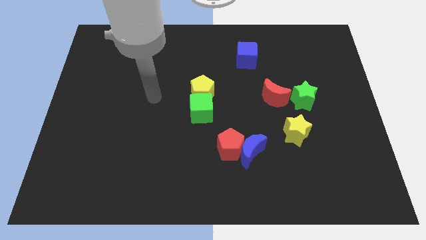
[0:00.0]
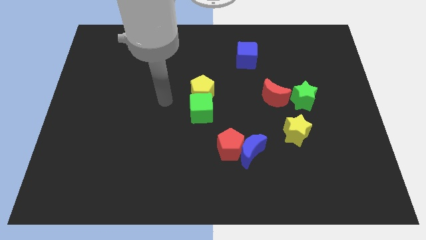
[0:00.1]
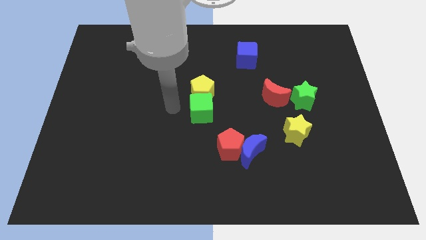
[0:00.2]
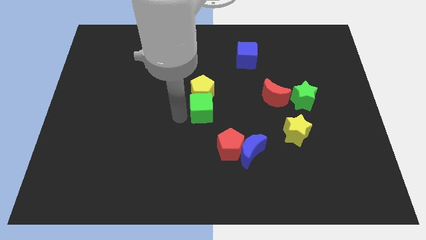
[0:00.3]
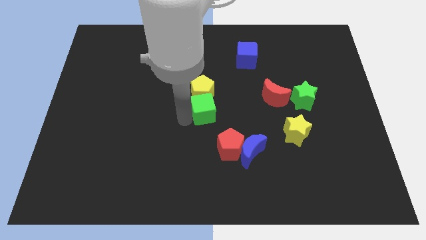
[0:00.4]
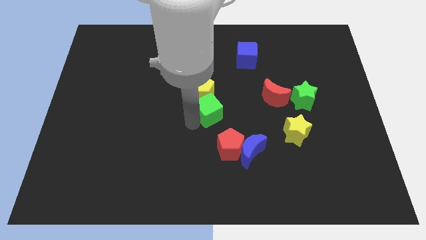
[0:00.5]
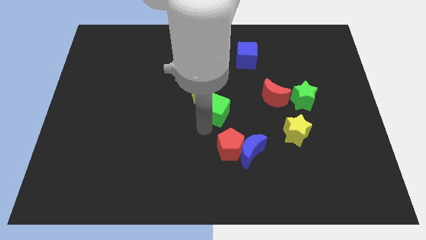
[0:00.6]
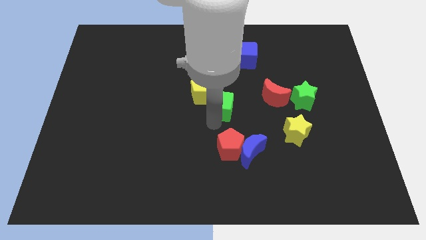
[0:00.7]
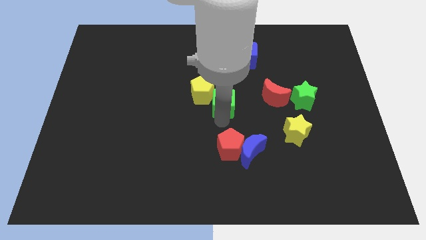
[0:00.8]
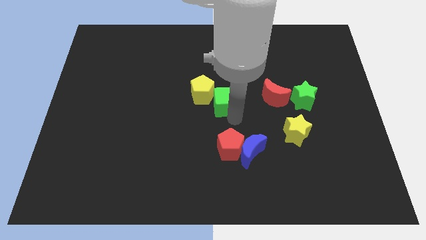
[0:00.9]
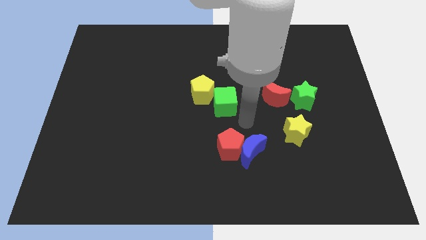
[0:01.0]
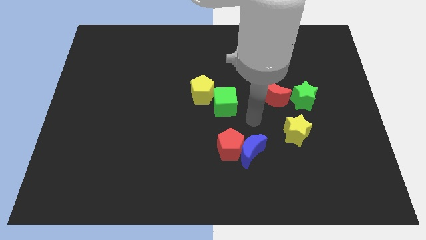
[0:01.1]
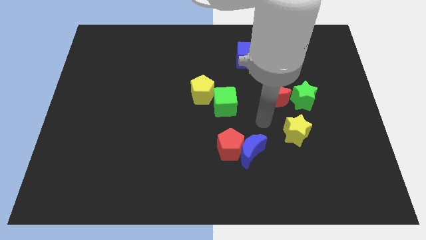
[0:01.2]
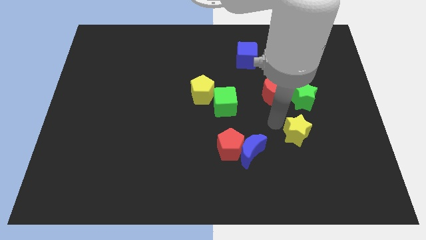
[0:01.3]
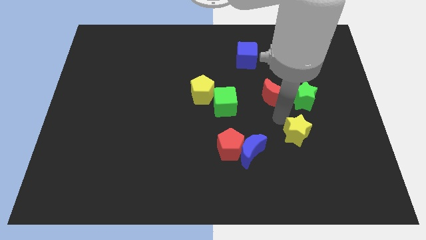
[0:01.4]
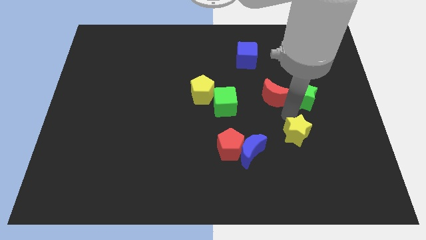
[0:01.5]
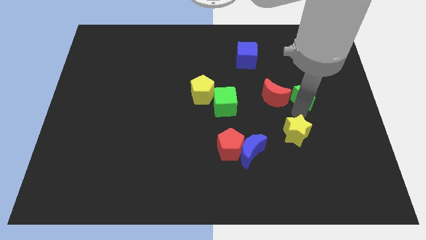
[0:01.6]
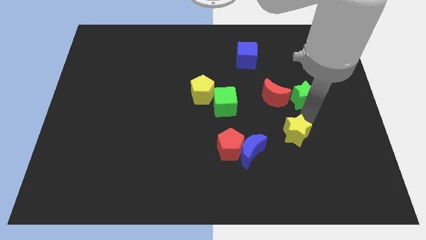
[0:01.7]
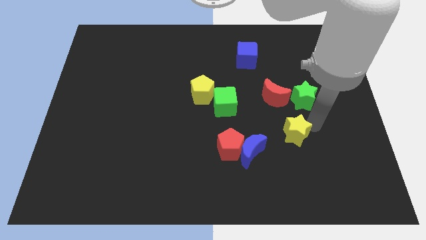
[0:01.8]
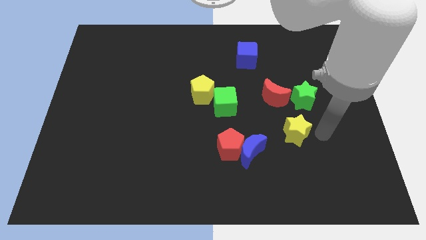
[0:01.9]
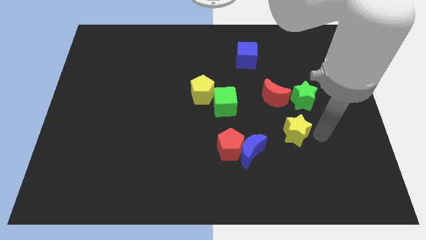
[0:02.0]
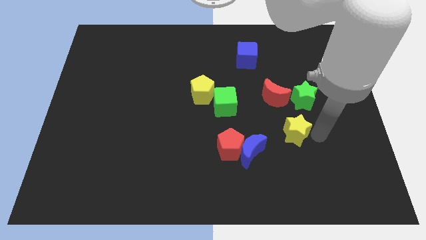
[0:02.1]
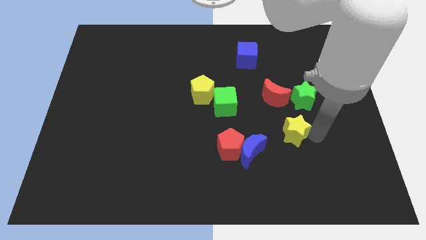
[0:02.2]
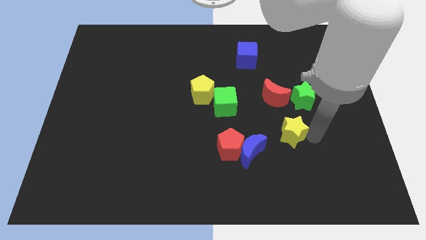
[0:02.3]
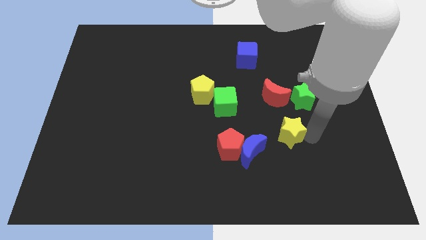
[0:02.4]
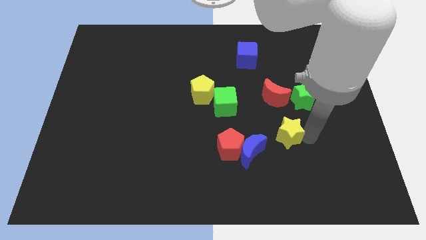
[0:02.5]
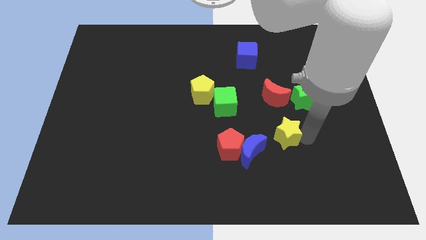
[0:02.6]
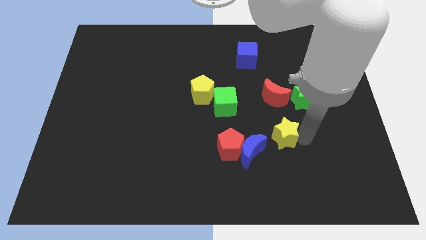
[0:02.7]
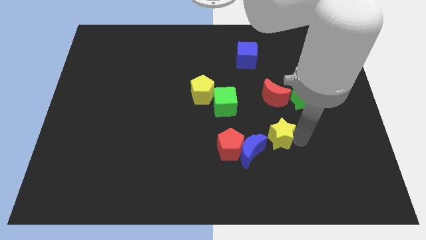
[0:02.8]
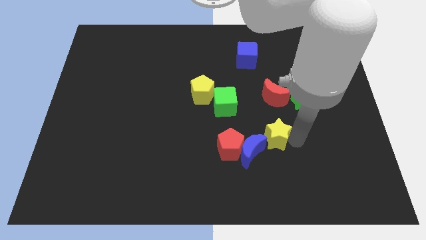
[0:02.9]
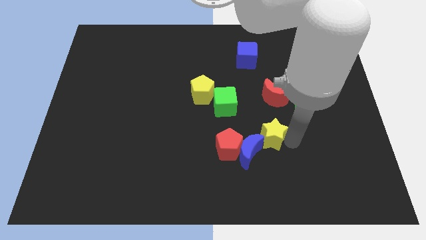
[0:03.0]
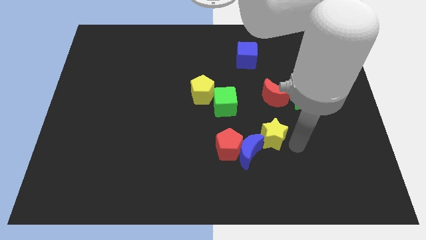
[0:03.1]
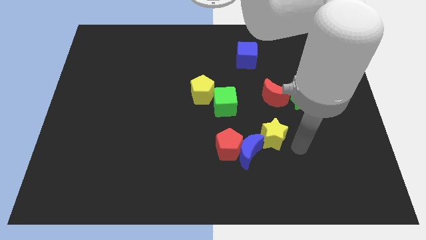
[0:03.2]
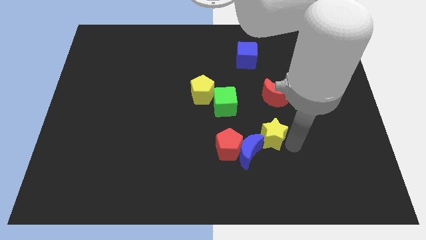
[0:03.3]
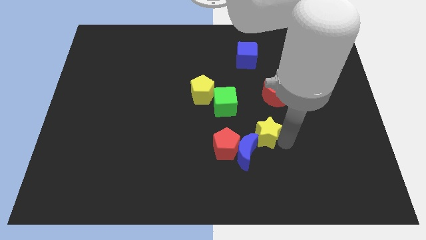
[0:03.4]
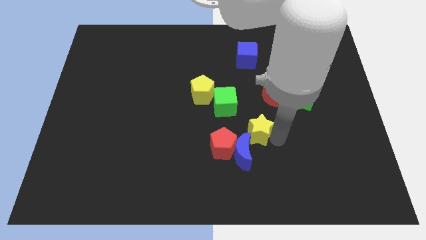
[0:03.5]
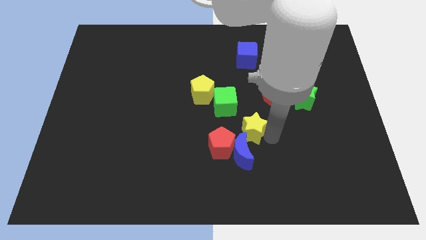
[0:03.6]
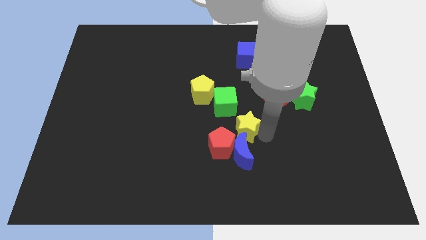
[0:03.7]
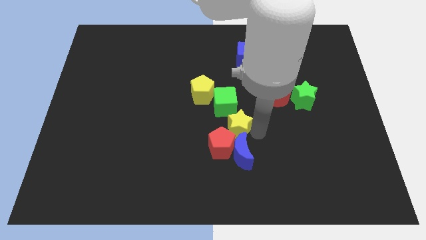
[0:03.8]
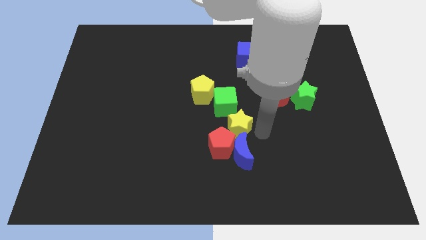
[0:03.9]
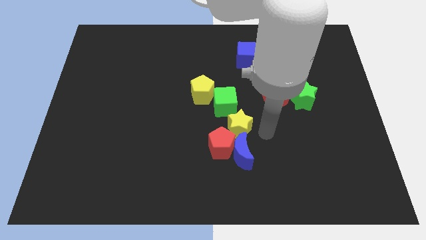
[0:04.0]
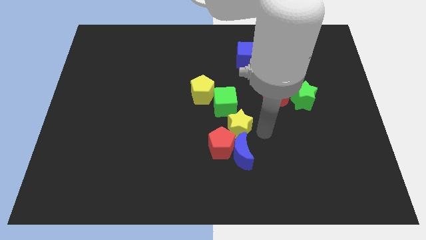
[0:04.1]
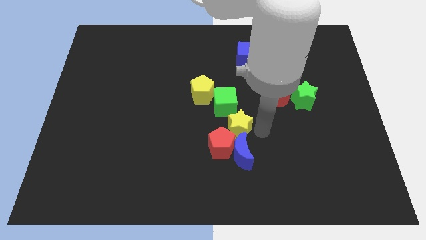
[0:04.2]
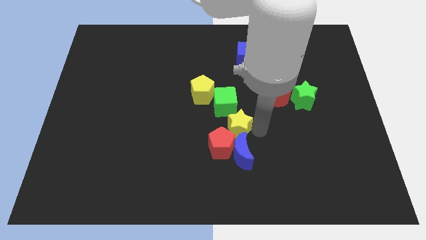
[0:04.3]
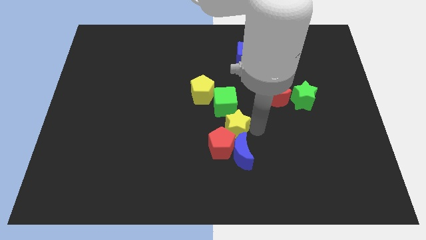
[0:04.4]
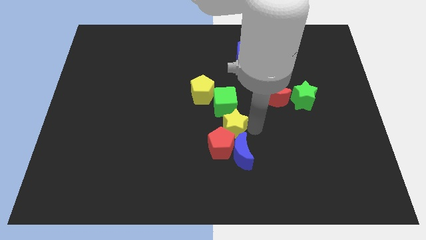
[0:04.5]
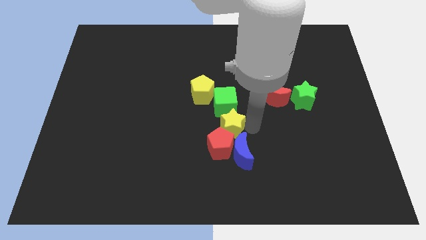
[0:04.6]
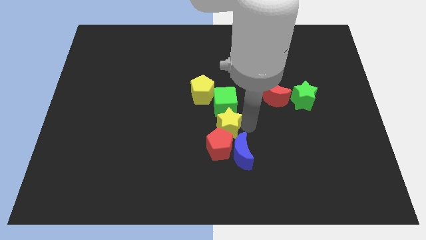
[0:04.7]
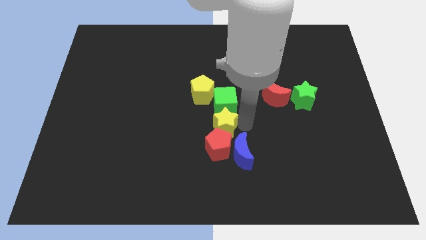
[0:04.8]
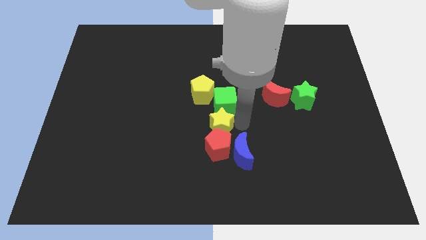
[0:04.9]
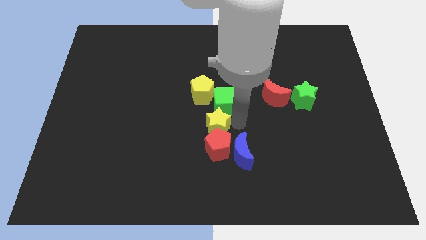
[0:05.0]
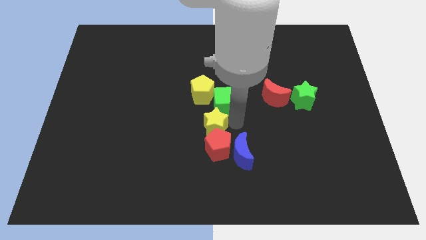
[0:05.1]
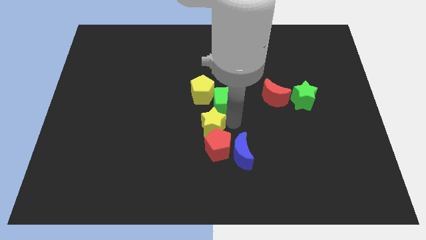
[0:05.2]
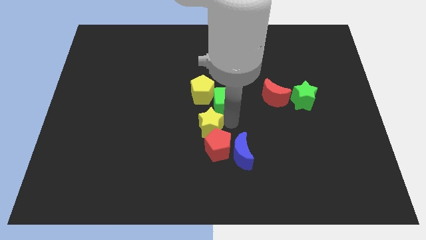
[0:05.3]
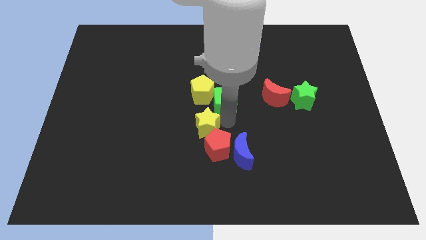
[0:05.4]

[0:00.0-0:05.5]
slide the yellow star to the left

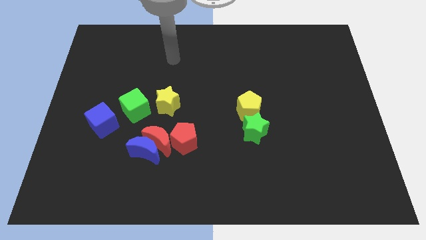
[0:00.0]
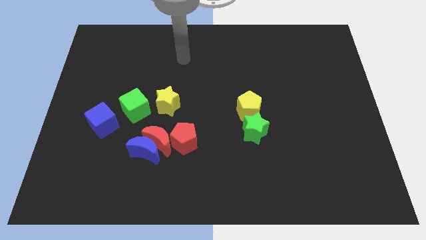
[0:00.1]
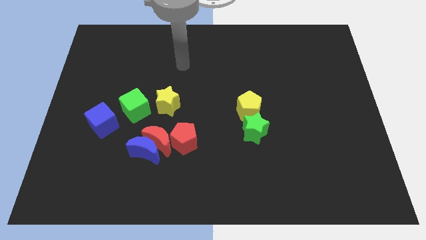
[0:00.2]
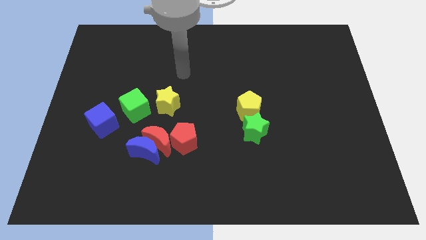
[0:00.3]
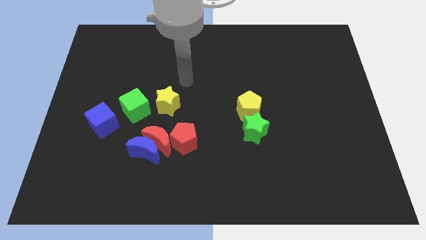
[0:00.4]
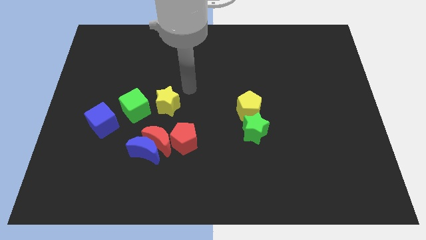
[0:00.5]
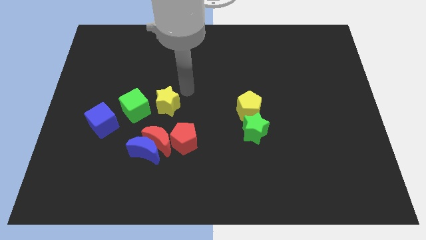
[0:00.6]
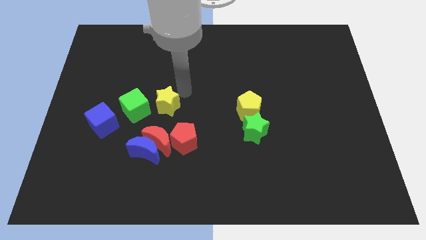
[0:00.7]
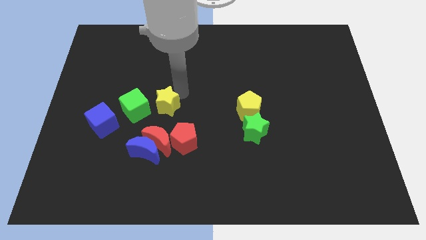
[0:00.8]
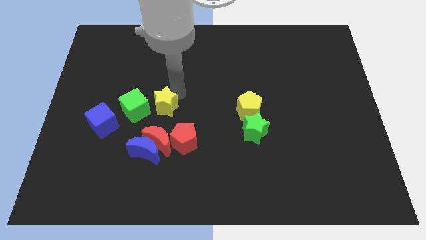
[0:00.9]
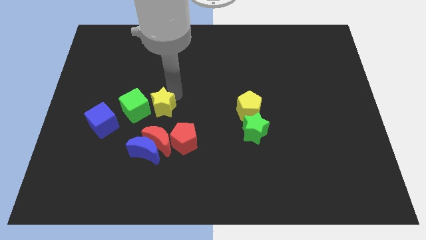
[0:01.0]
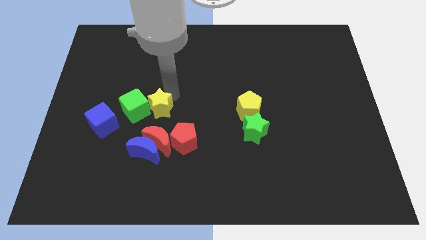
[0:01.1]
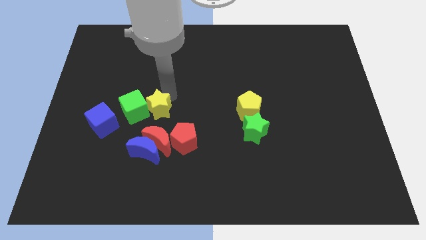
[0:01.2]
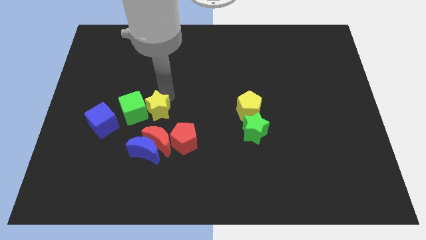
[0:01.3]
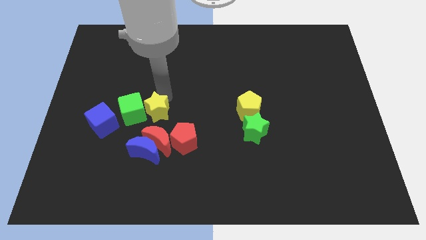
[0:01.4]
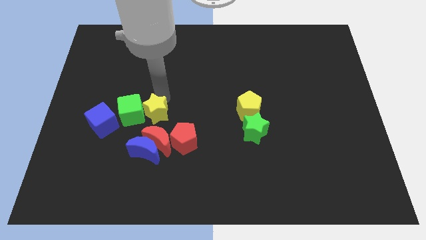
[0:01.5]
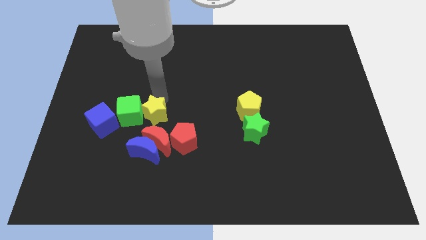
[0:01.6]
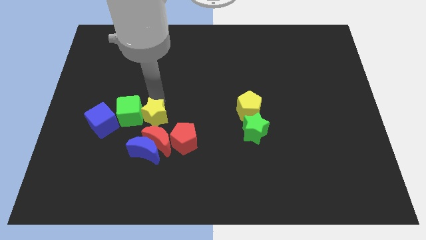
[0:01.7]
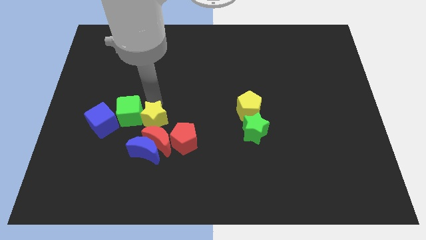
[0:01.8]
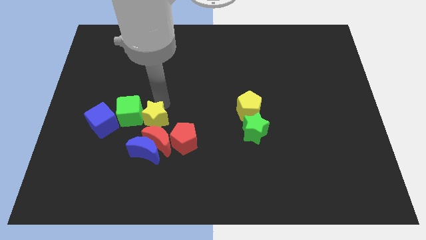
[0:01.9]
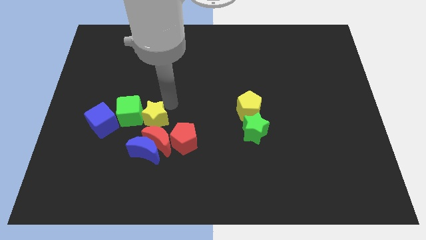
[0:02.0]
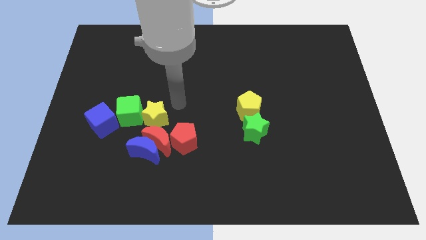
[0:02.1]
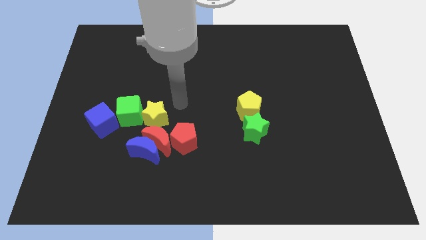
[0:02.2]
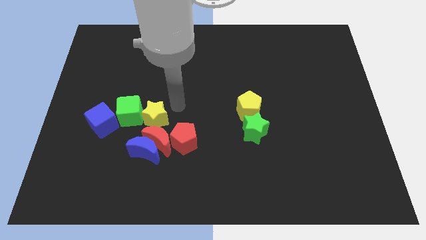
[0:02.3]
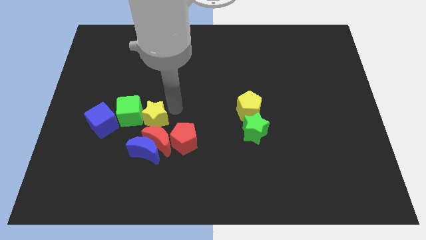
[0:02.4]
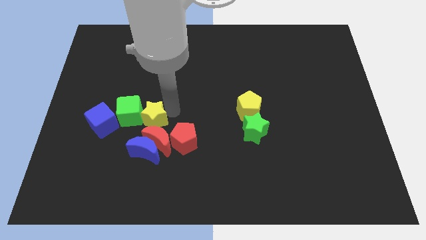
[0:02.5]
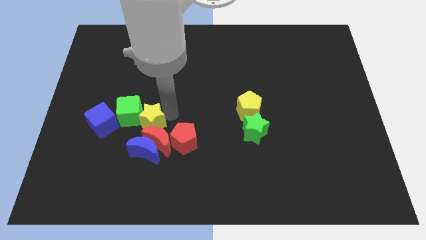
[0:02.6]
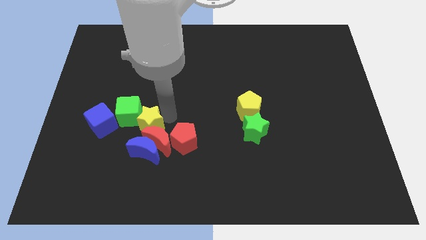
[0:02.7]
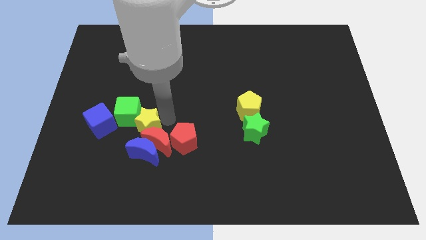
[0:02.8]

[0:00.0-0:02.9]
slightly push the yellow star diagonally down and to the left
